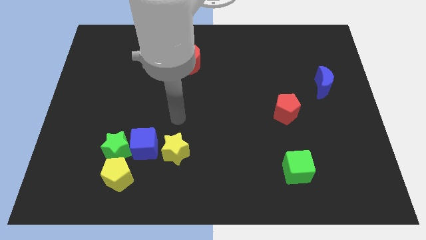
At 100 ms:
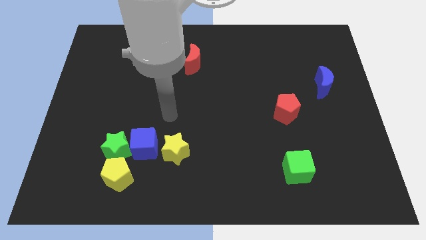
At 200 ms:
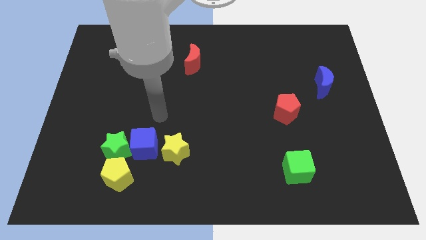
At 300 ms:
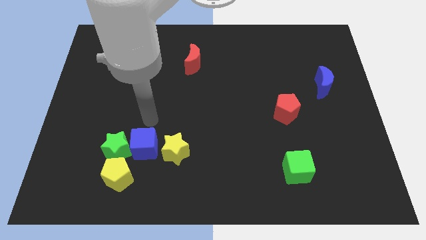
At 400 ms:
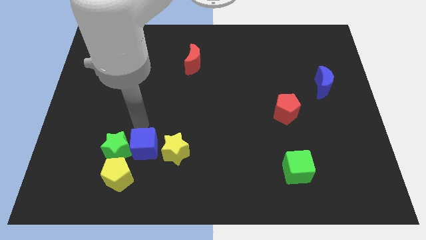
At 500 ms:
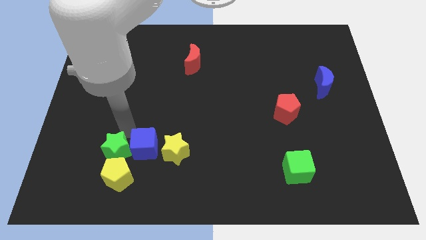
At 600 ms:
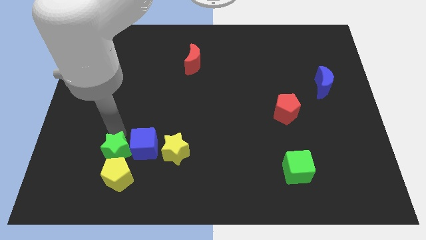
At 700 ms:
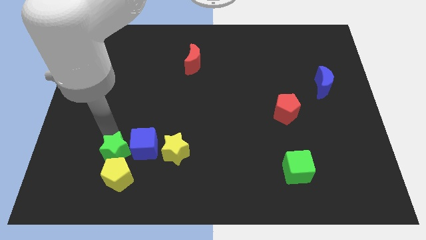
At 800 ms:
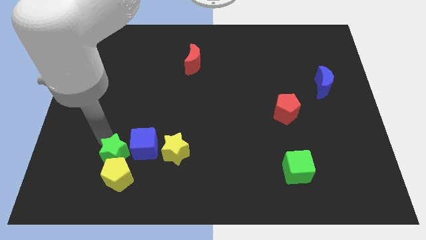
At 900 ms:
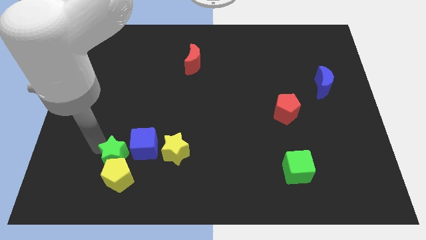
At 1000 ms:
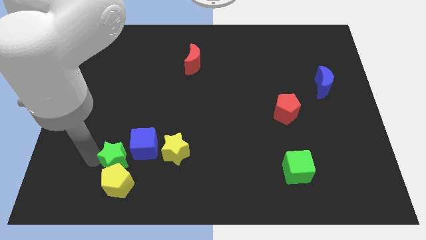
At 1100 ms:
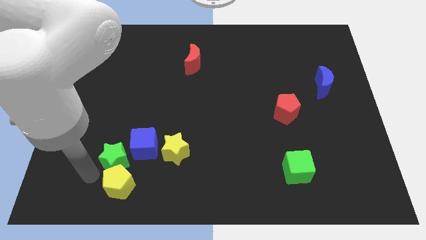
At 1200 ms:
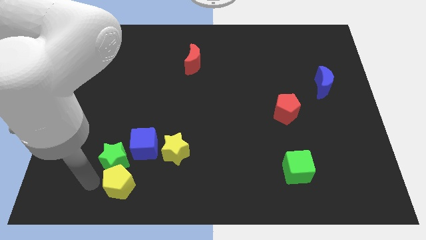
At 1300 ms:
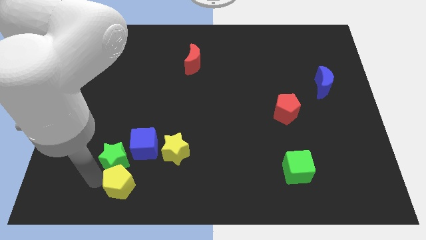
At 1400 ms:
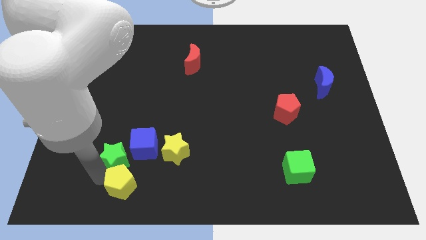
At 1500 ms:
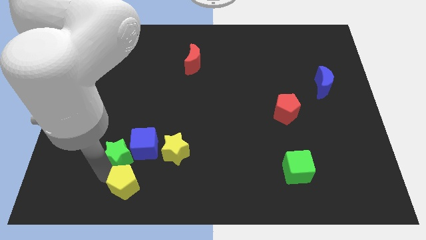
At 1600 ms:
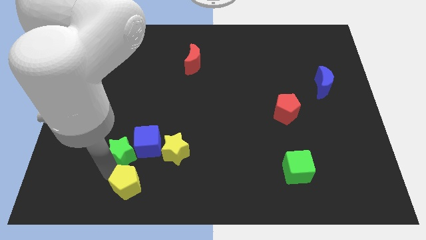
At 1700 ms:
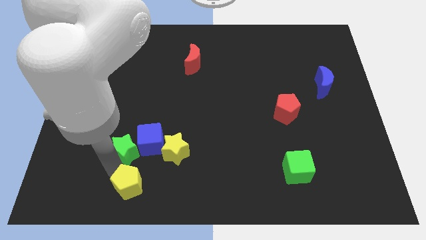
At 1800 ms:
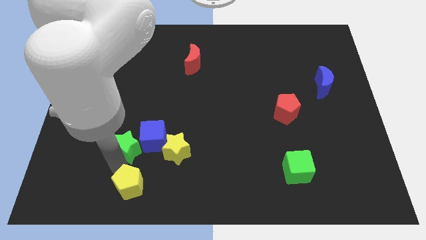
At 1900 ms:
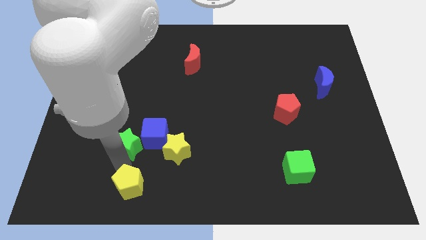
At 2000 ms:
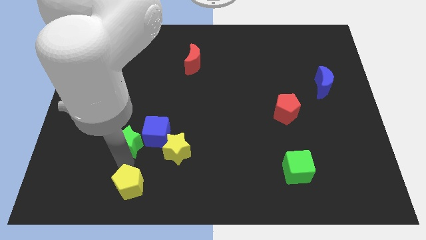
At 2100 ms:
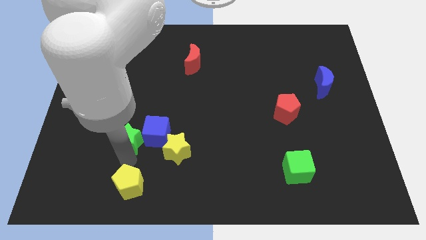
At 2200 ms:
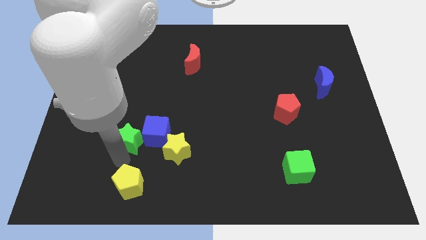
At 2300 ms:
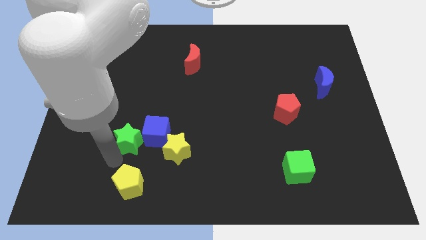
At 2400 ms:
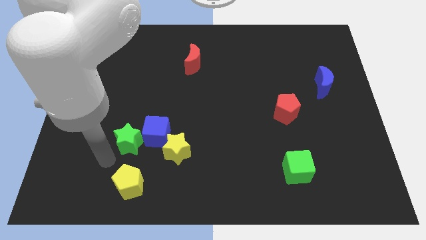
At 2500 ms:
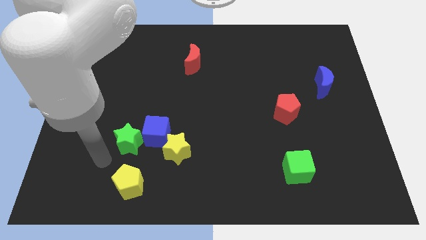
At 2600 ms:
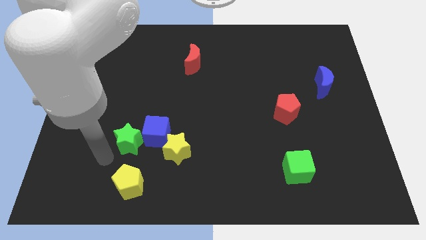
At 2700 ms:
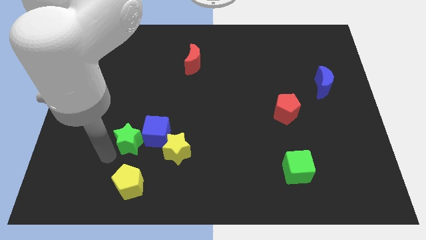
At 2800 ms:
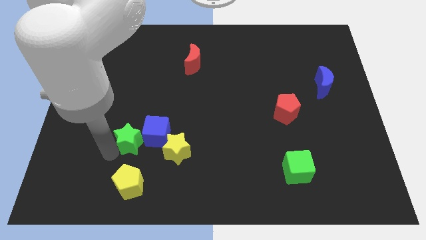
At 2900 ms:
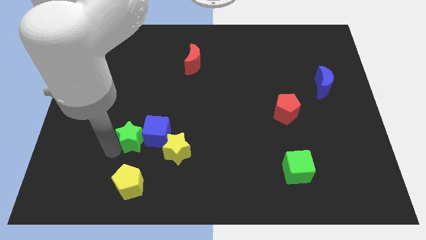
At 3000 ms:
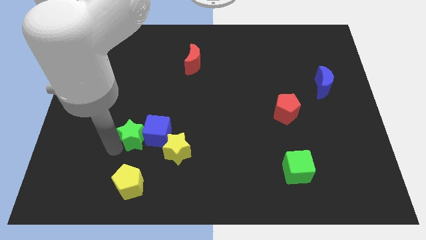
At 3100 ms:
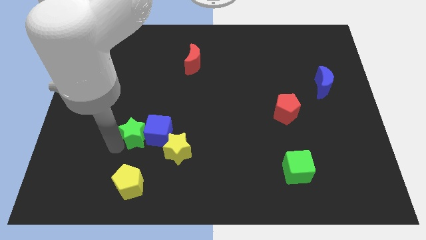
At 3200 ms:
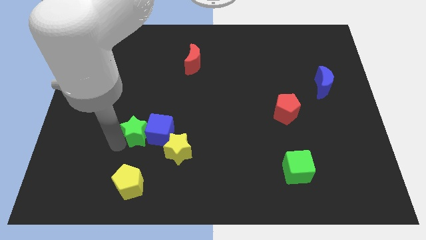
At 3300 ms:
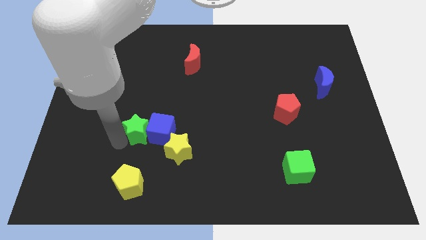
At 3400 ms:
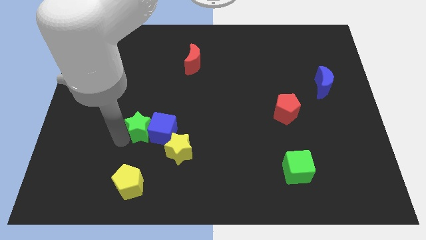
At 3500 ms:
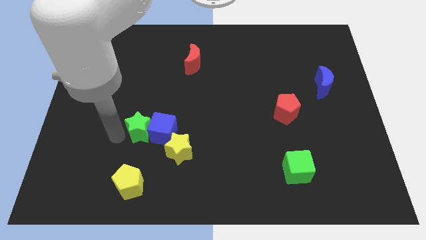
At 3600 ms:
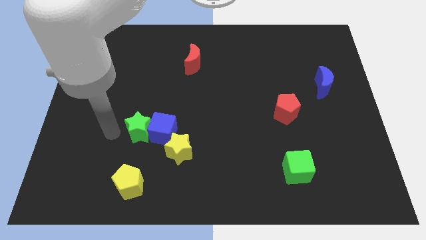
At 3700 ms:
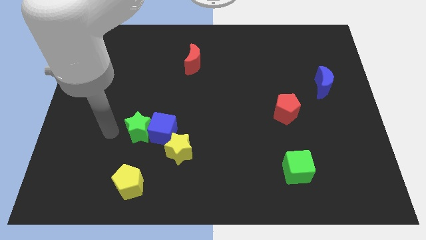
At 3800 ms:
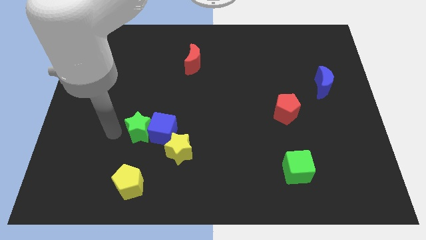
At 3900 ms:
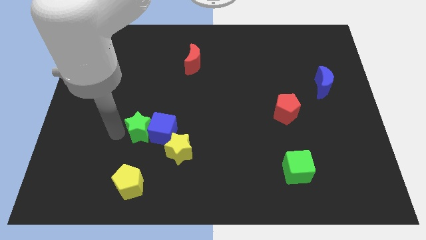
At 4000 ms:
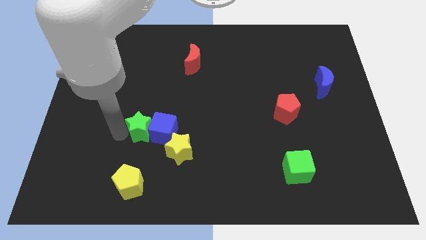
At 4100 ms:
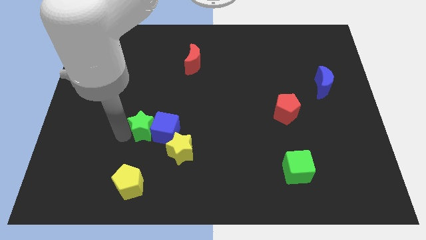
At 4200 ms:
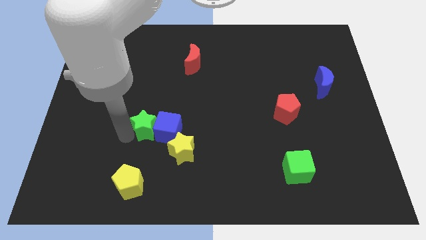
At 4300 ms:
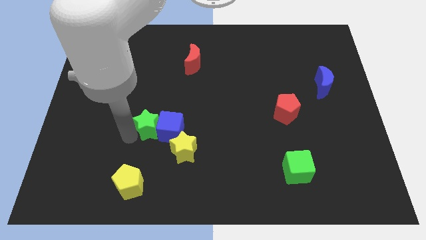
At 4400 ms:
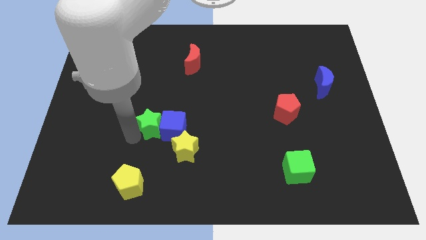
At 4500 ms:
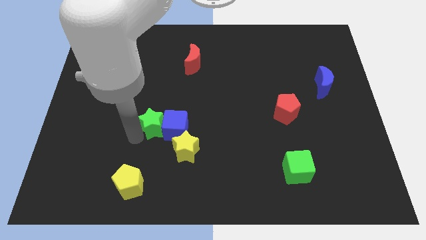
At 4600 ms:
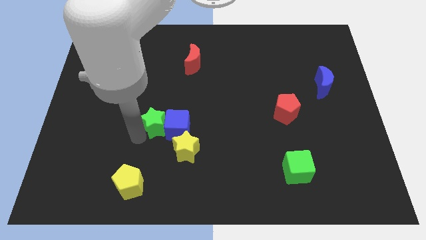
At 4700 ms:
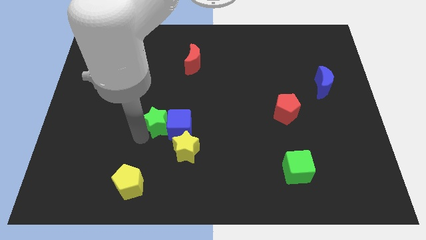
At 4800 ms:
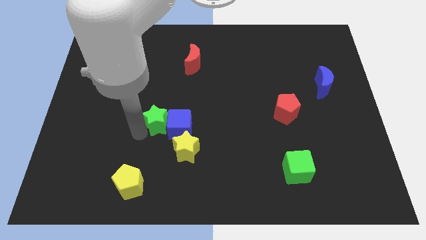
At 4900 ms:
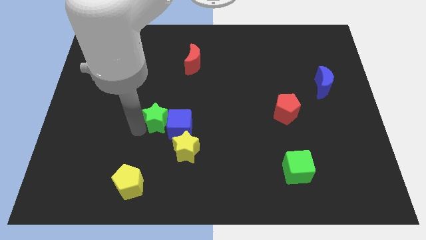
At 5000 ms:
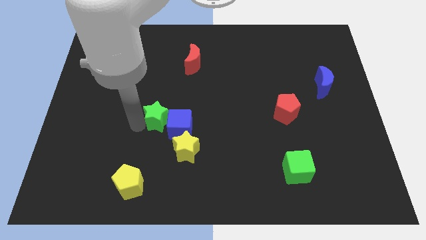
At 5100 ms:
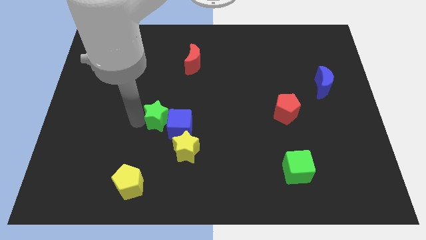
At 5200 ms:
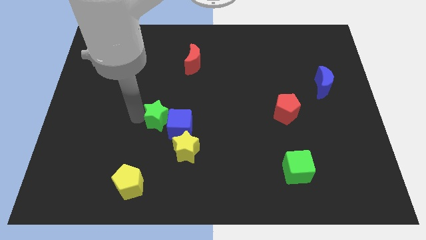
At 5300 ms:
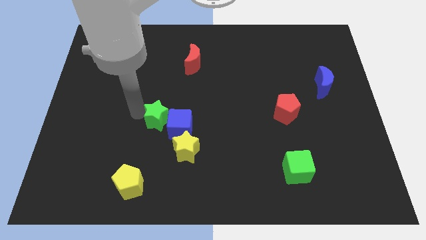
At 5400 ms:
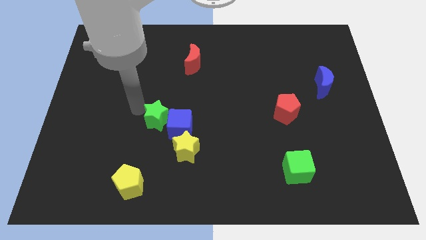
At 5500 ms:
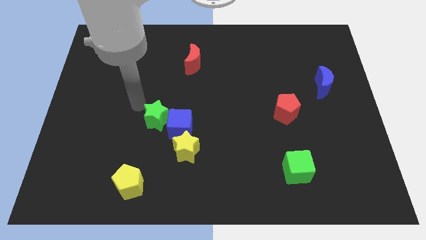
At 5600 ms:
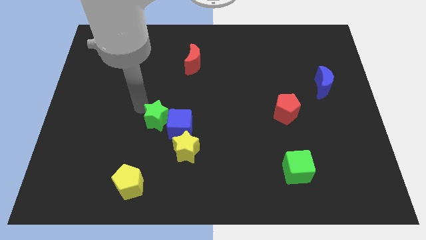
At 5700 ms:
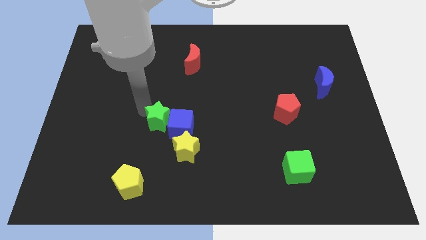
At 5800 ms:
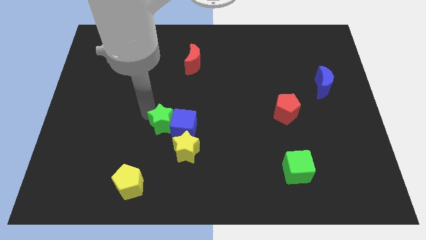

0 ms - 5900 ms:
move the green star slightly to the right

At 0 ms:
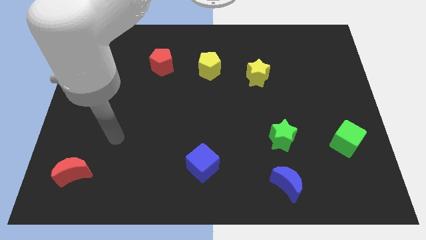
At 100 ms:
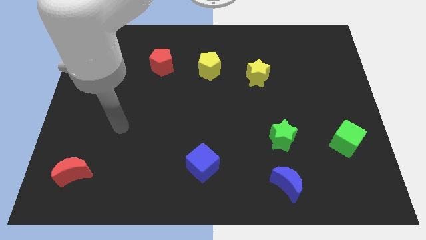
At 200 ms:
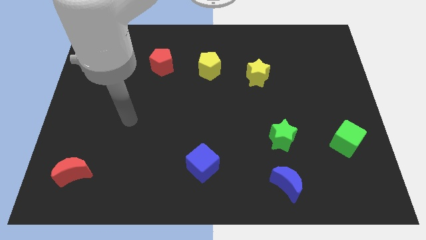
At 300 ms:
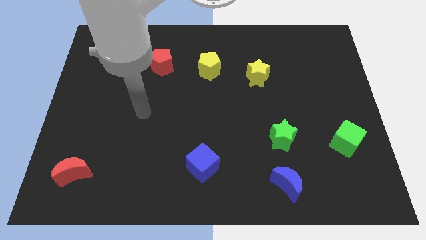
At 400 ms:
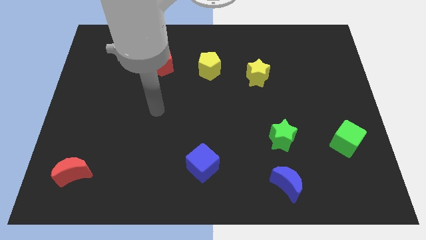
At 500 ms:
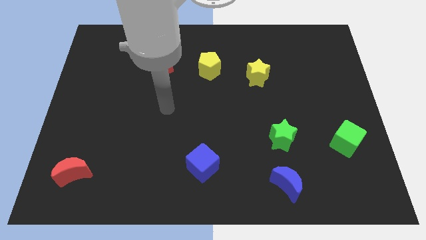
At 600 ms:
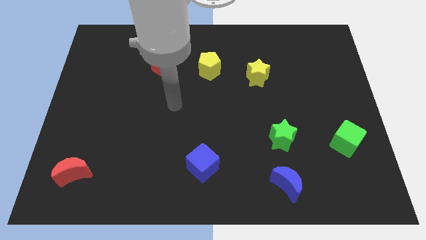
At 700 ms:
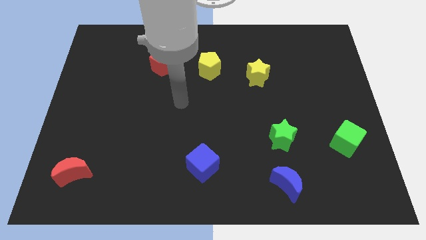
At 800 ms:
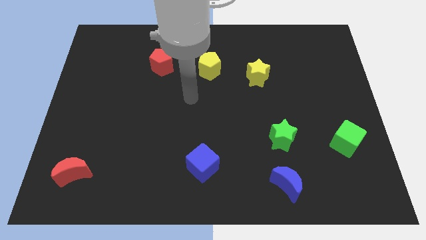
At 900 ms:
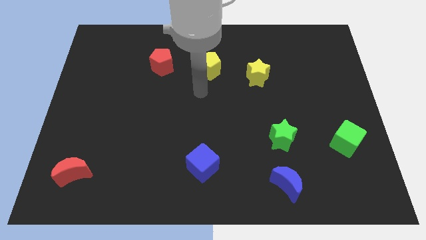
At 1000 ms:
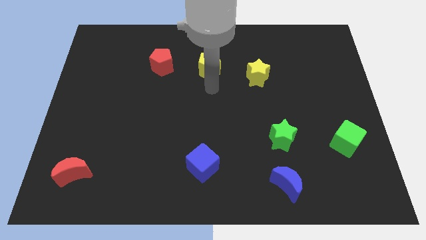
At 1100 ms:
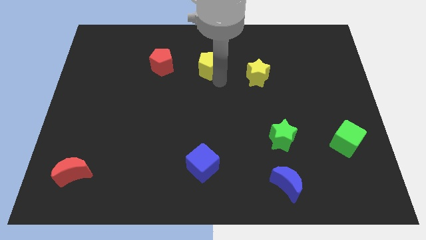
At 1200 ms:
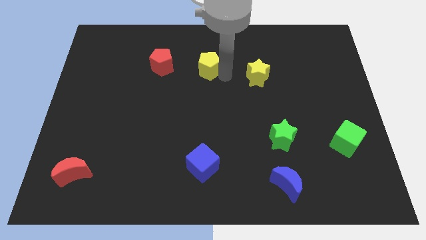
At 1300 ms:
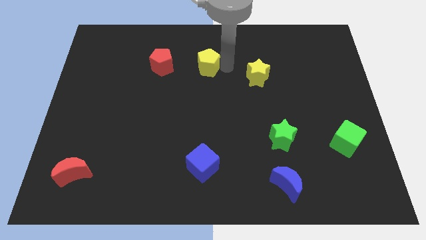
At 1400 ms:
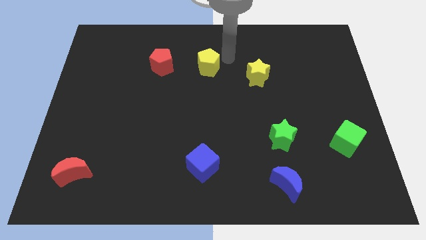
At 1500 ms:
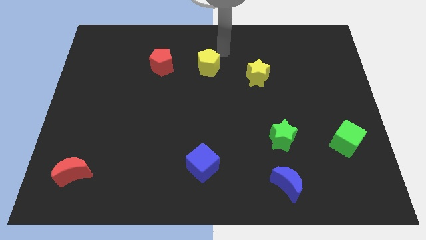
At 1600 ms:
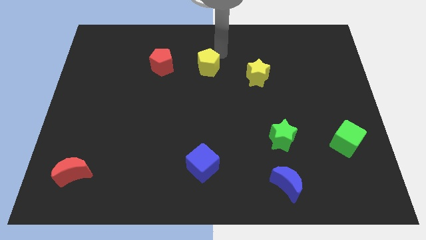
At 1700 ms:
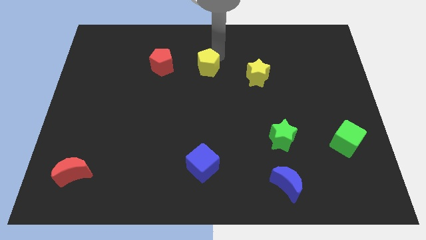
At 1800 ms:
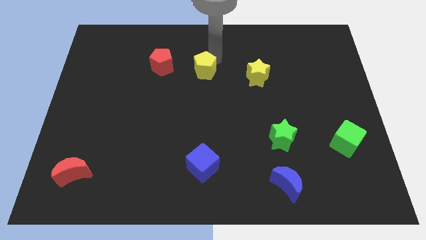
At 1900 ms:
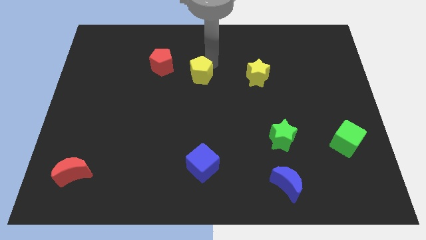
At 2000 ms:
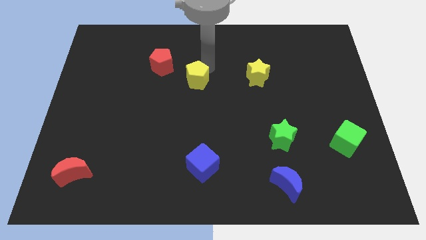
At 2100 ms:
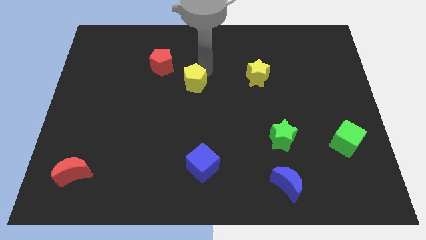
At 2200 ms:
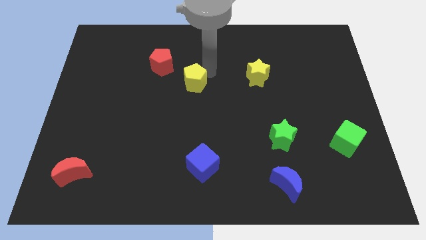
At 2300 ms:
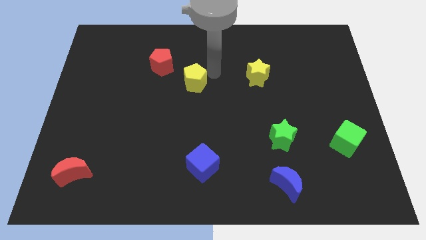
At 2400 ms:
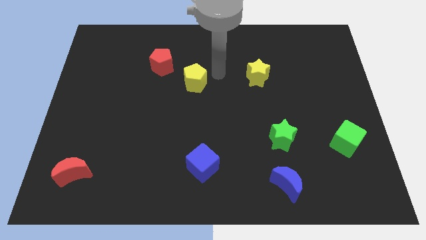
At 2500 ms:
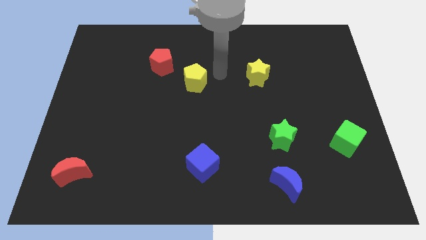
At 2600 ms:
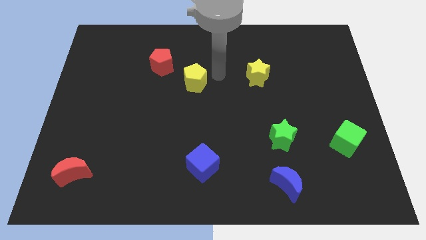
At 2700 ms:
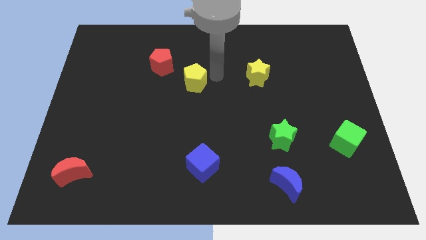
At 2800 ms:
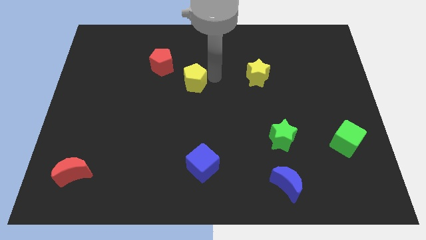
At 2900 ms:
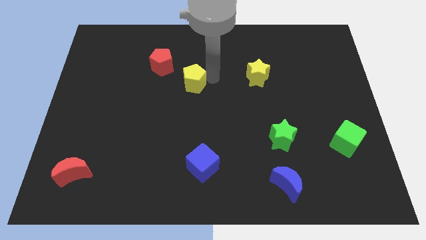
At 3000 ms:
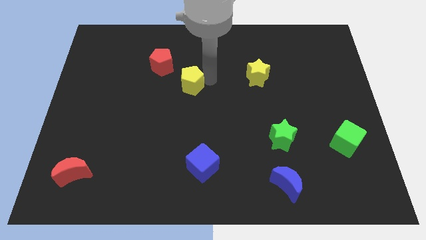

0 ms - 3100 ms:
slide the yellow pentagon somewhat down and left
